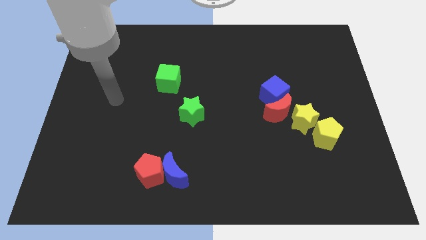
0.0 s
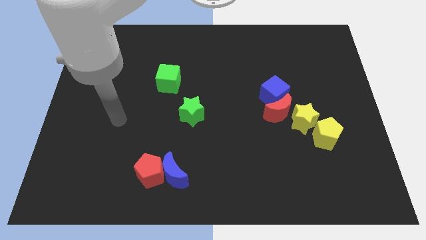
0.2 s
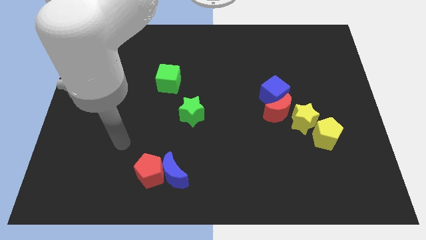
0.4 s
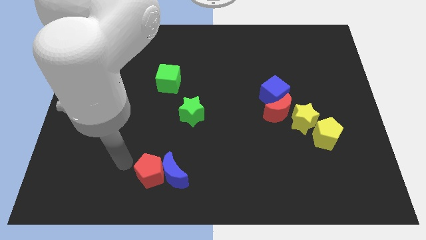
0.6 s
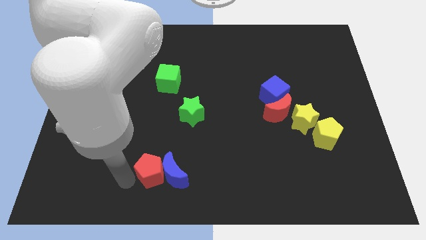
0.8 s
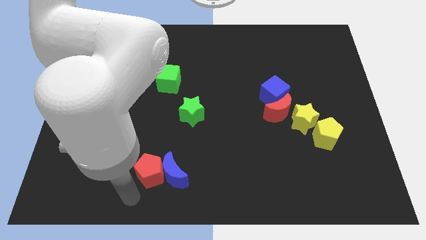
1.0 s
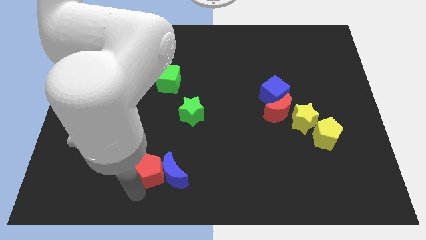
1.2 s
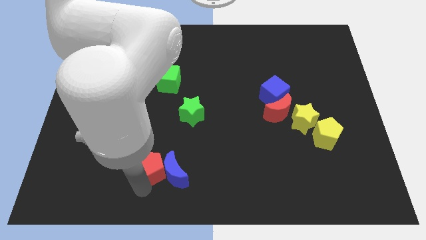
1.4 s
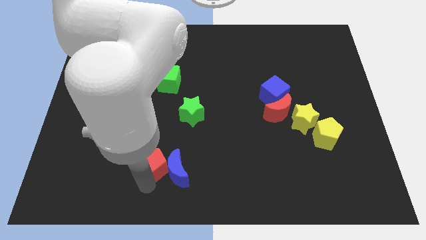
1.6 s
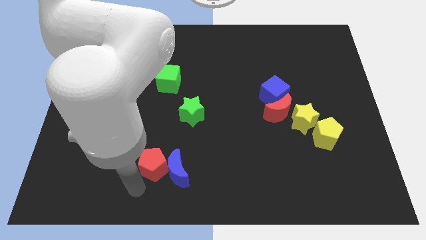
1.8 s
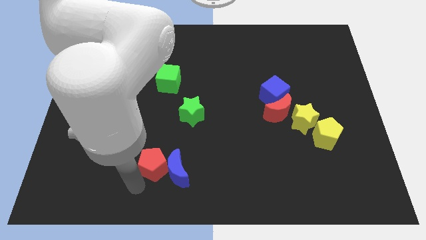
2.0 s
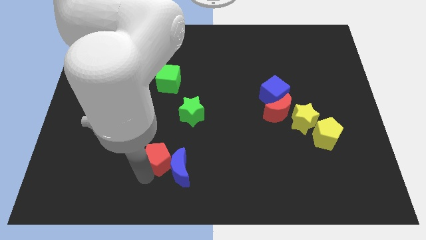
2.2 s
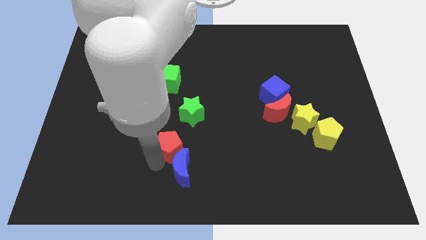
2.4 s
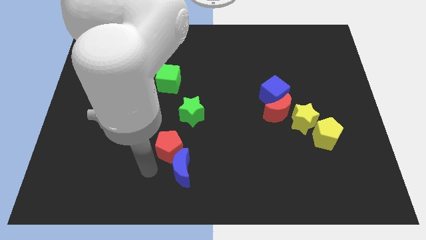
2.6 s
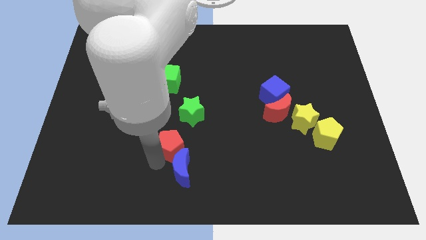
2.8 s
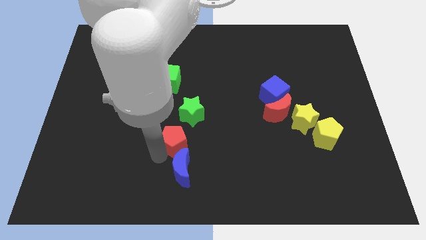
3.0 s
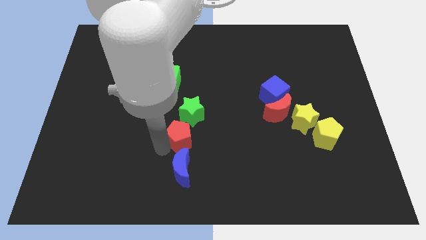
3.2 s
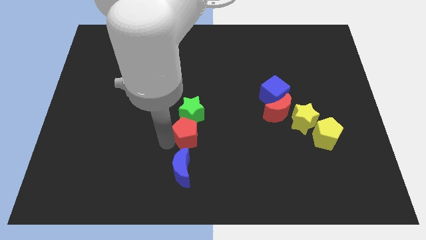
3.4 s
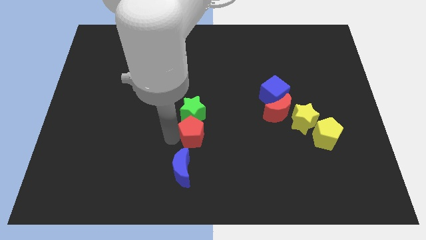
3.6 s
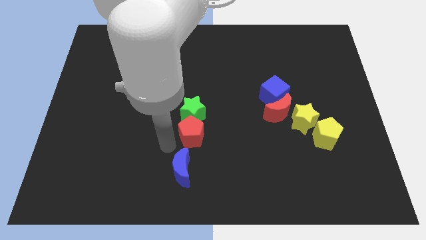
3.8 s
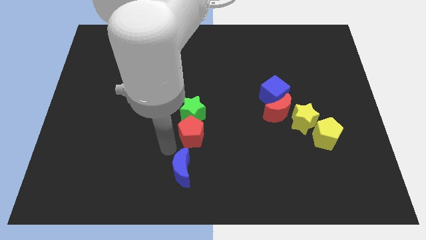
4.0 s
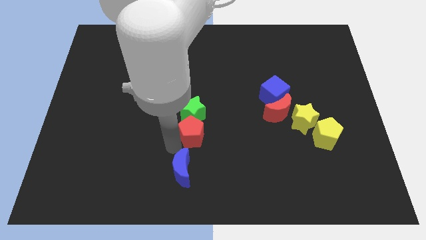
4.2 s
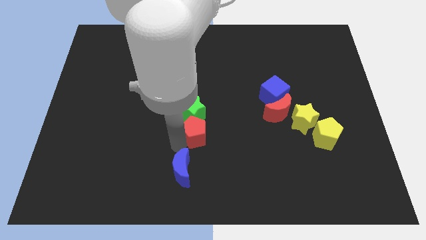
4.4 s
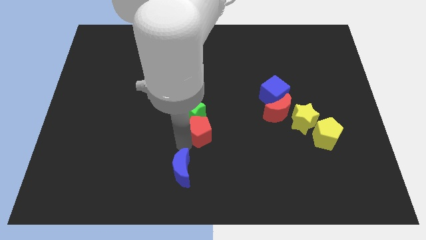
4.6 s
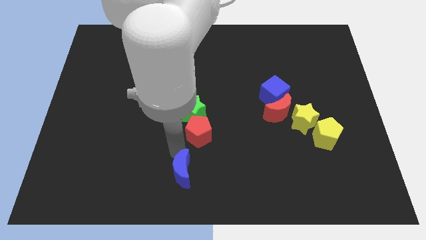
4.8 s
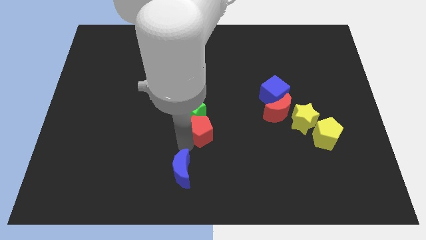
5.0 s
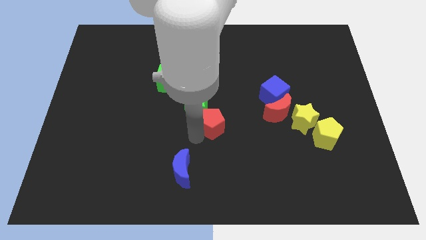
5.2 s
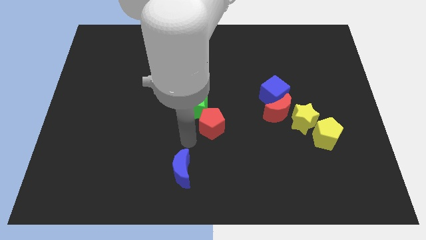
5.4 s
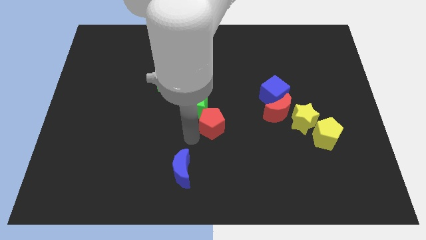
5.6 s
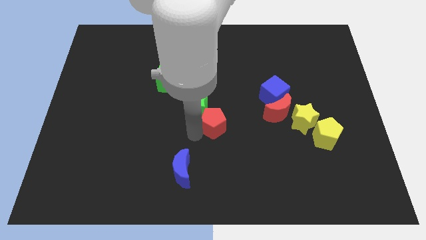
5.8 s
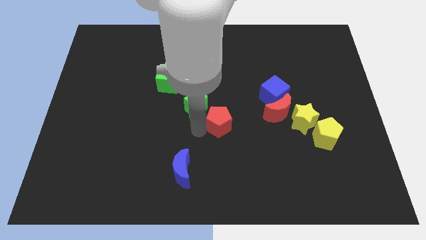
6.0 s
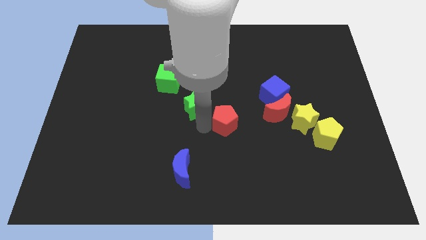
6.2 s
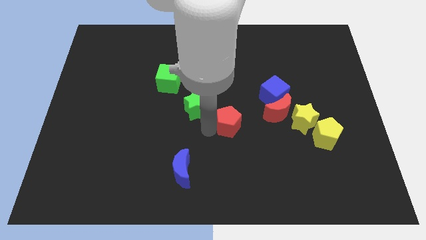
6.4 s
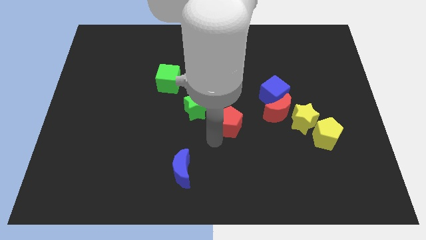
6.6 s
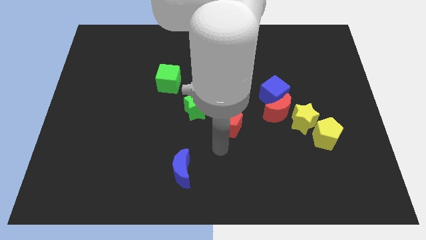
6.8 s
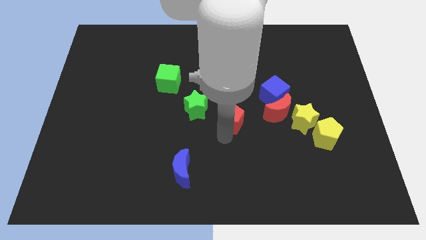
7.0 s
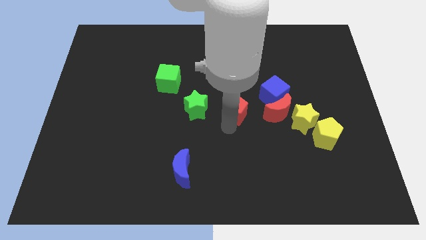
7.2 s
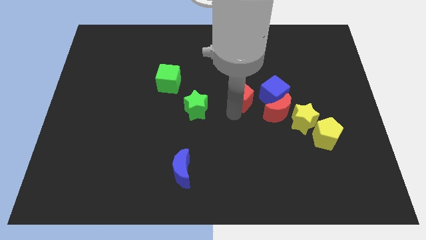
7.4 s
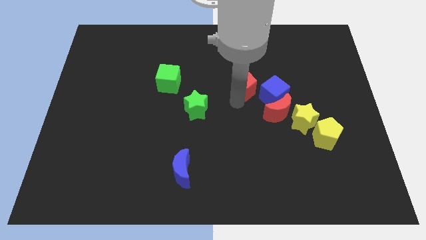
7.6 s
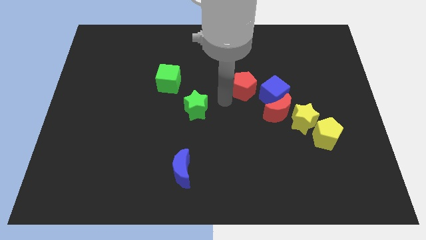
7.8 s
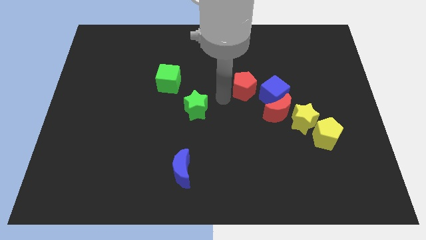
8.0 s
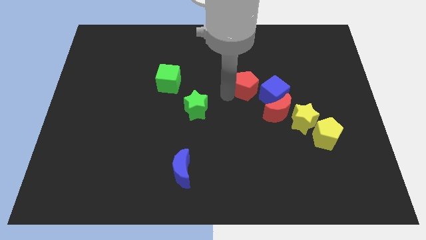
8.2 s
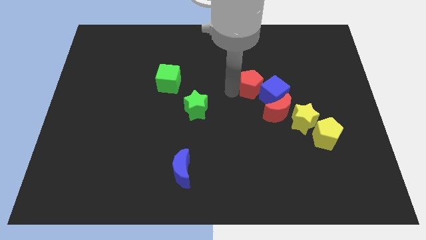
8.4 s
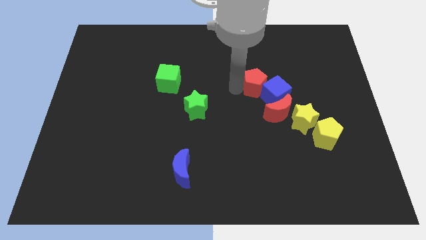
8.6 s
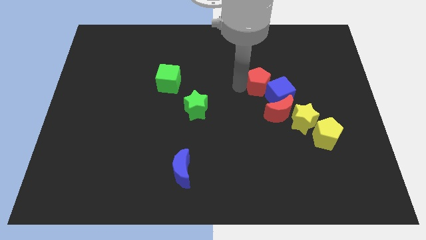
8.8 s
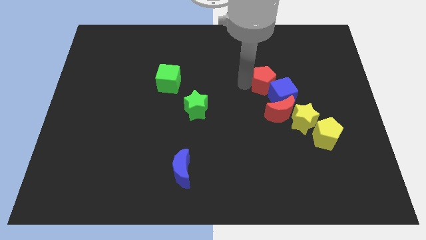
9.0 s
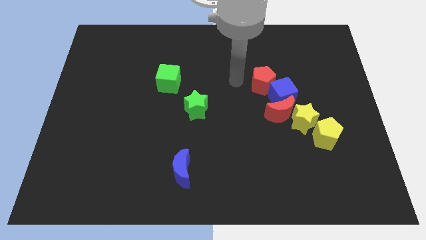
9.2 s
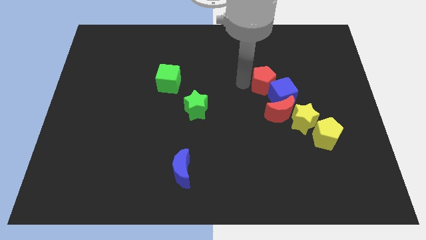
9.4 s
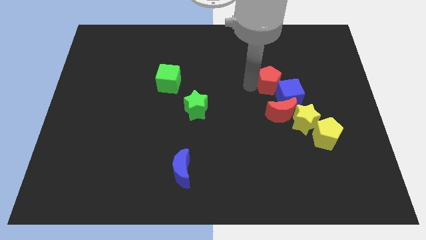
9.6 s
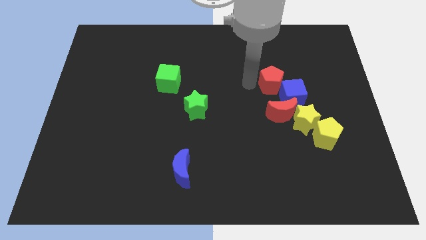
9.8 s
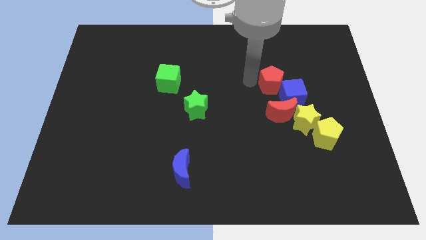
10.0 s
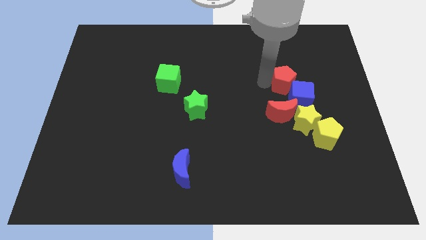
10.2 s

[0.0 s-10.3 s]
move the red pentagon to the top of the yellow star

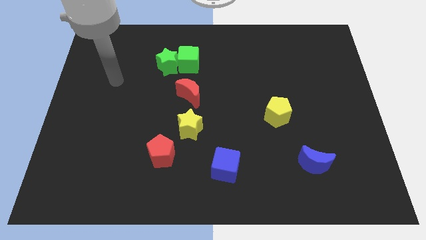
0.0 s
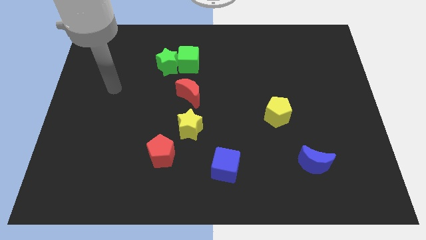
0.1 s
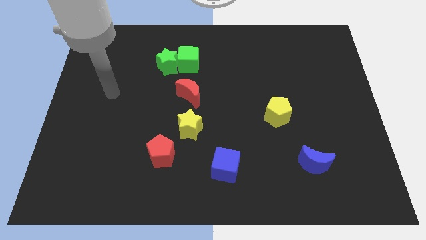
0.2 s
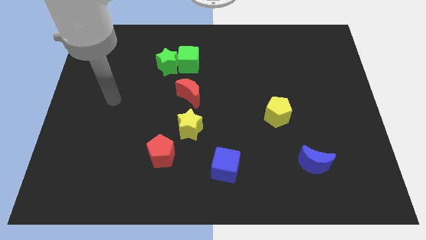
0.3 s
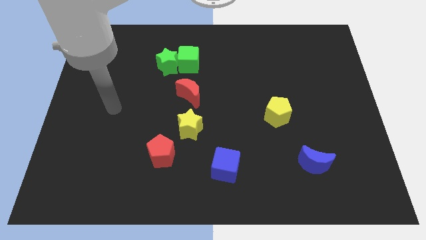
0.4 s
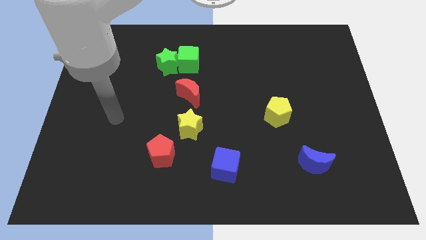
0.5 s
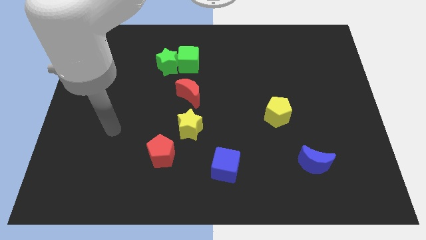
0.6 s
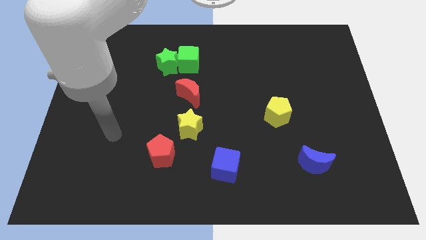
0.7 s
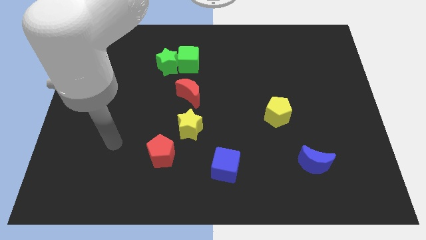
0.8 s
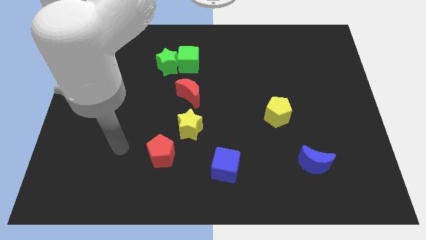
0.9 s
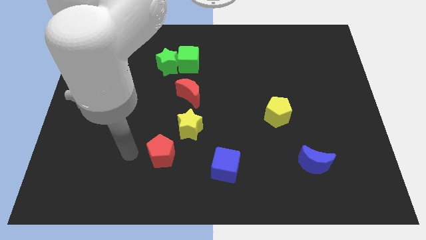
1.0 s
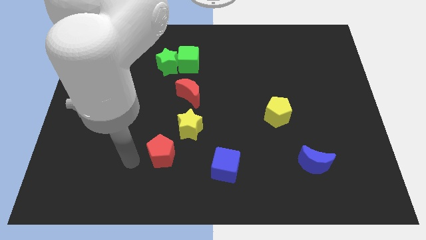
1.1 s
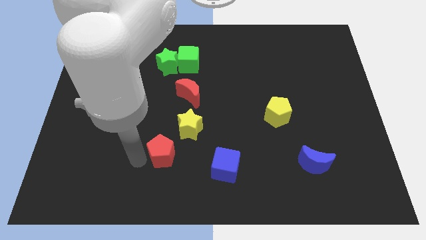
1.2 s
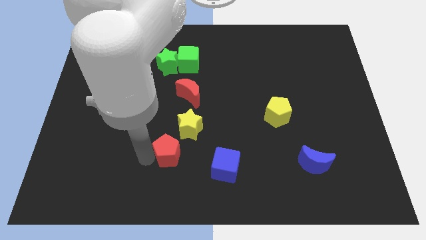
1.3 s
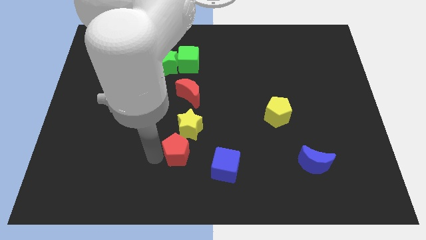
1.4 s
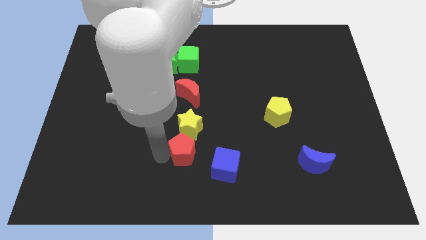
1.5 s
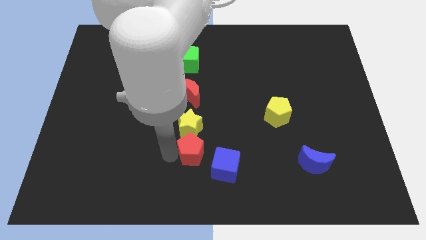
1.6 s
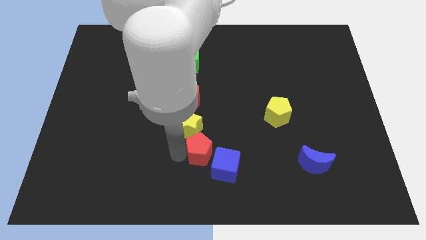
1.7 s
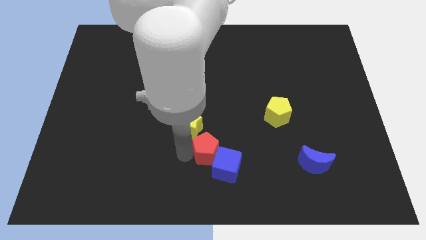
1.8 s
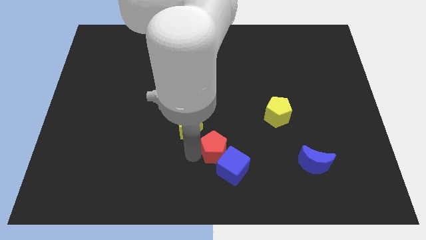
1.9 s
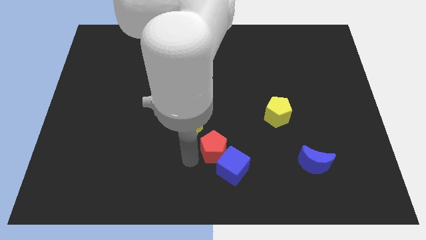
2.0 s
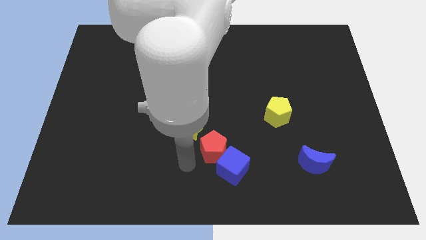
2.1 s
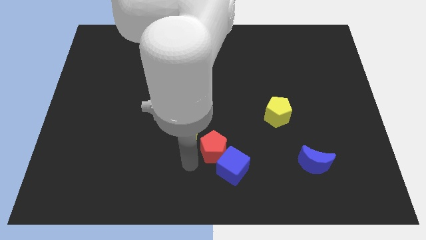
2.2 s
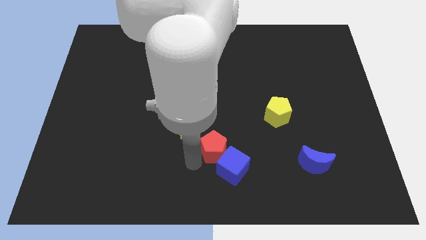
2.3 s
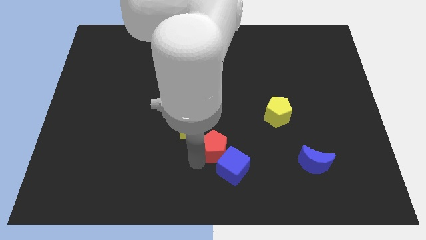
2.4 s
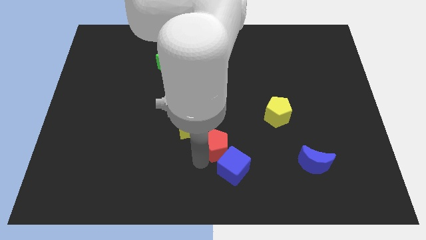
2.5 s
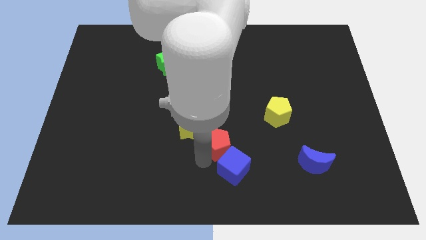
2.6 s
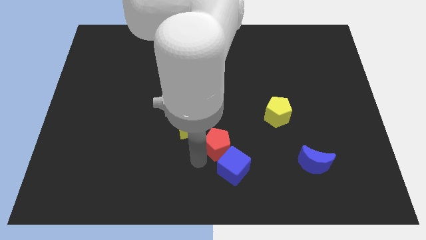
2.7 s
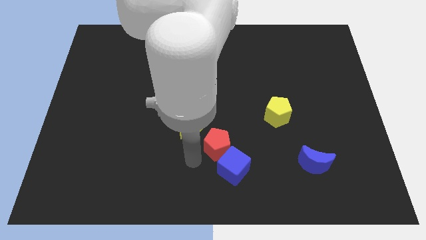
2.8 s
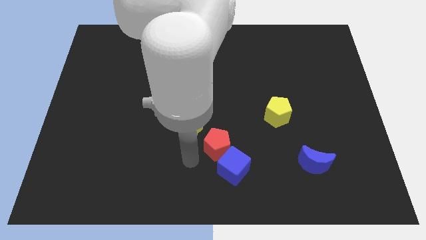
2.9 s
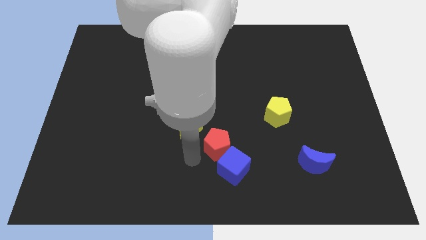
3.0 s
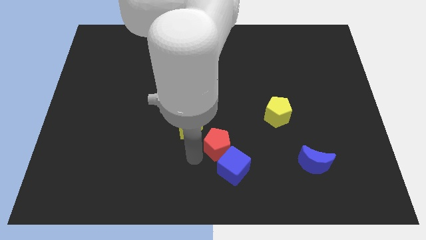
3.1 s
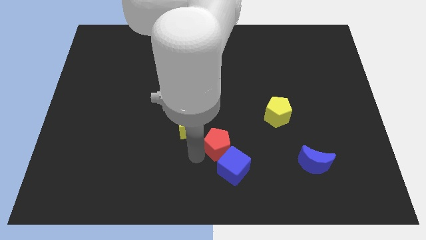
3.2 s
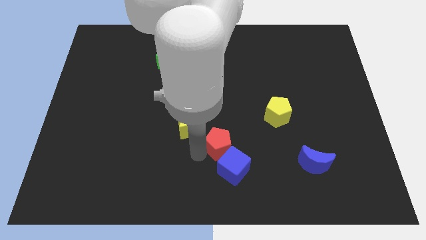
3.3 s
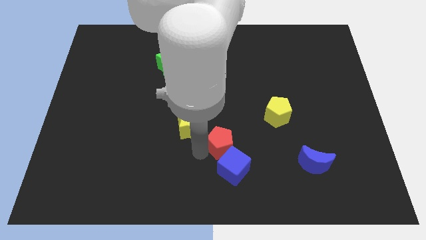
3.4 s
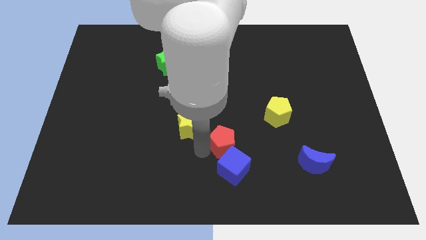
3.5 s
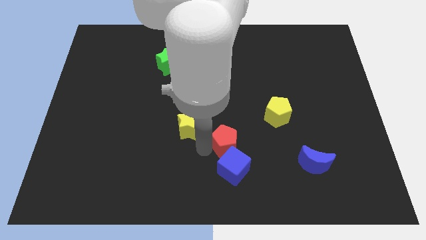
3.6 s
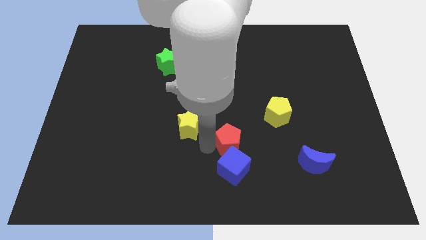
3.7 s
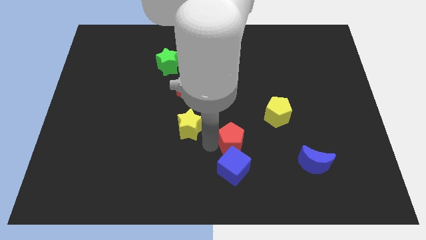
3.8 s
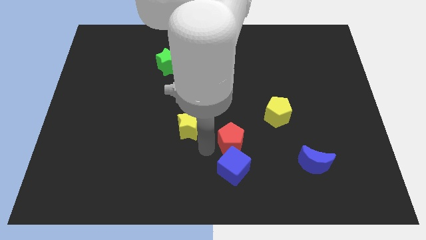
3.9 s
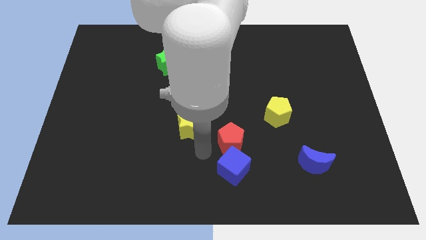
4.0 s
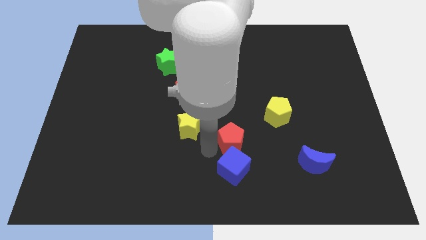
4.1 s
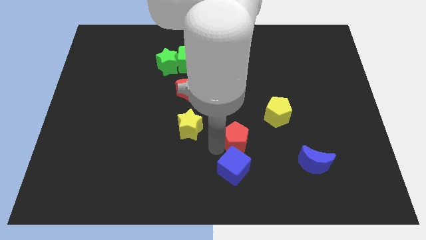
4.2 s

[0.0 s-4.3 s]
slide the red pentagon diagonally down and to the left of the yellow pentagon
